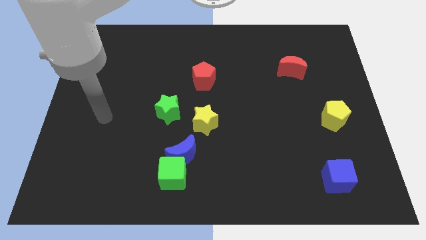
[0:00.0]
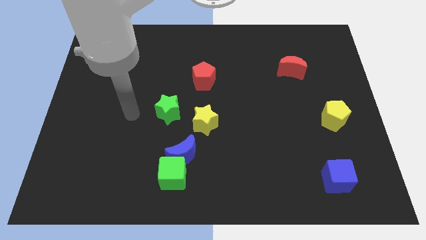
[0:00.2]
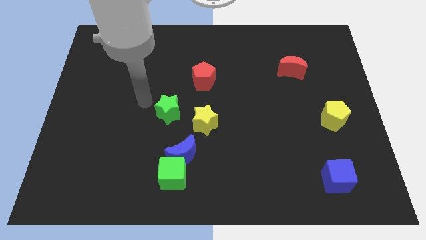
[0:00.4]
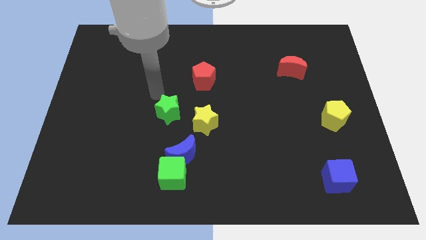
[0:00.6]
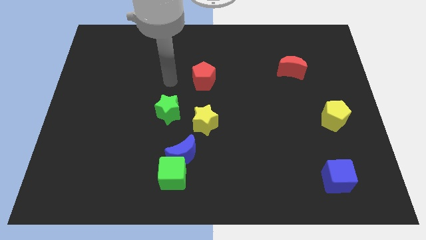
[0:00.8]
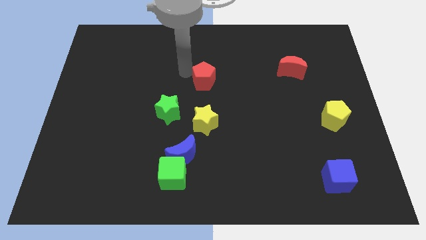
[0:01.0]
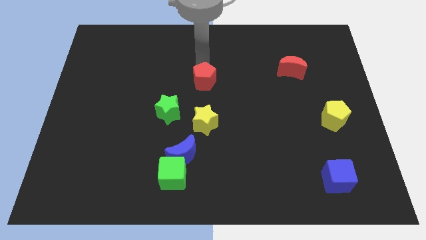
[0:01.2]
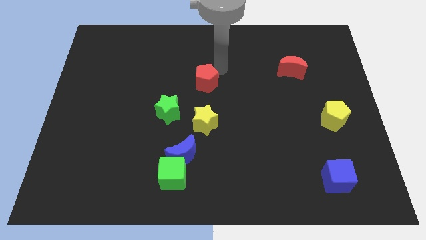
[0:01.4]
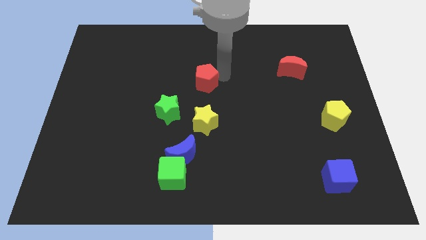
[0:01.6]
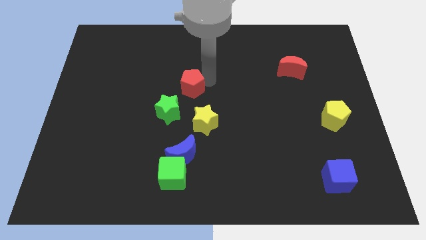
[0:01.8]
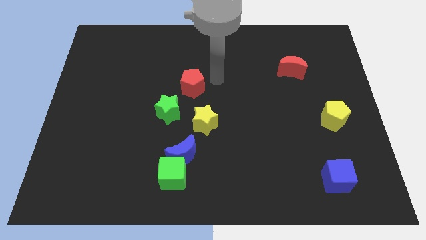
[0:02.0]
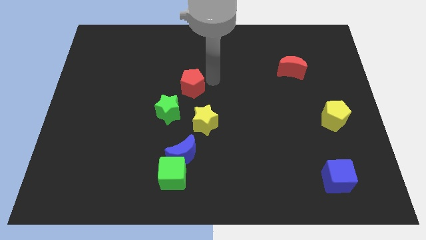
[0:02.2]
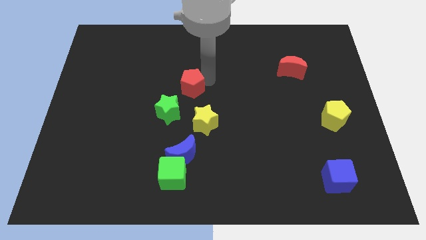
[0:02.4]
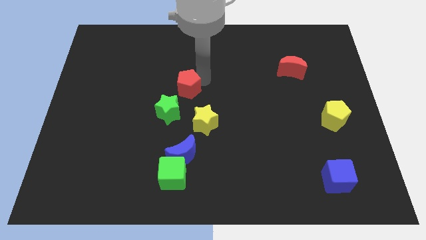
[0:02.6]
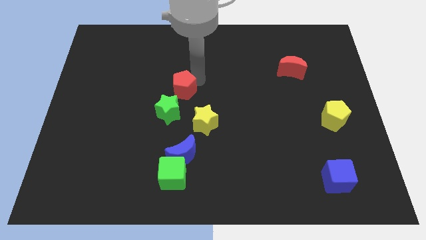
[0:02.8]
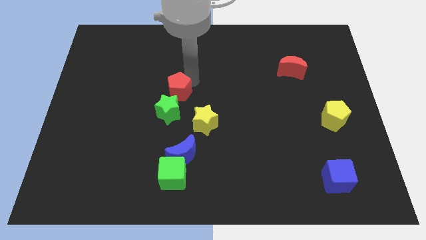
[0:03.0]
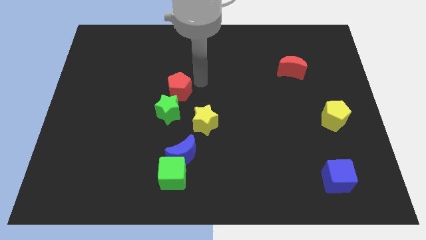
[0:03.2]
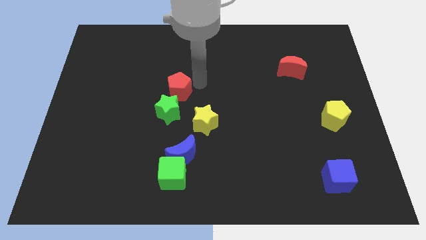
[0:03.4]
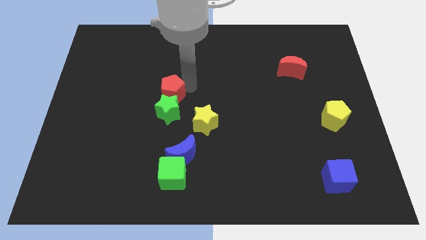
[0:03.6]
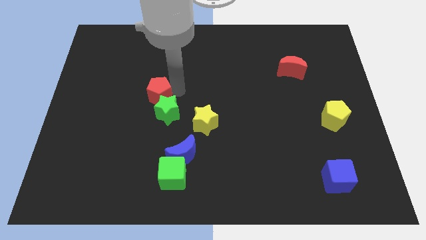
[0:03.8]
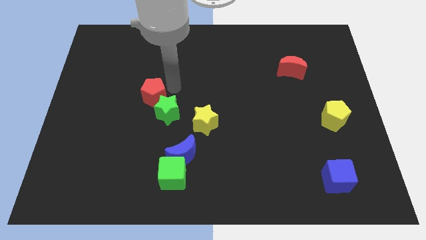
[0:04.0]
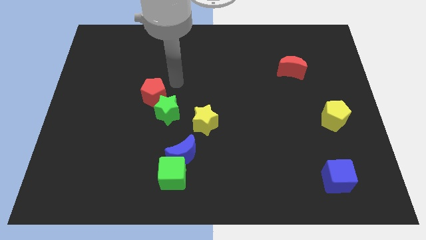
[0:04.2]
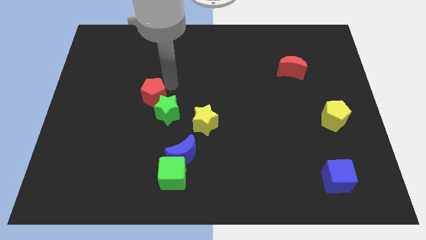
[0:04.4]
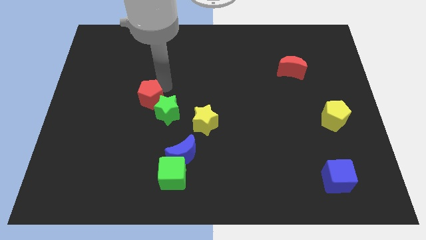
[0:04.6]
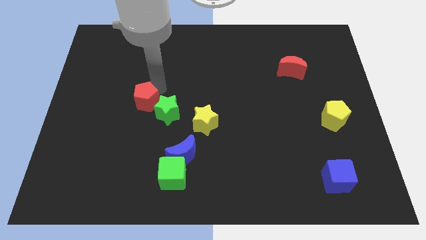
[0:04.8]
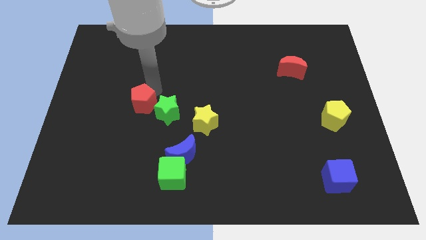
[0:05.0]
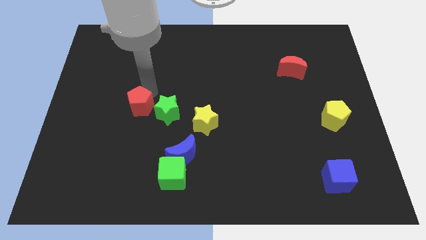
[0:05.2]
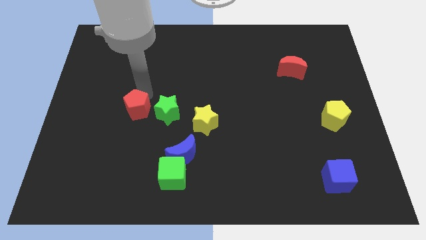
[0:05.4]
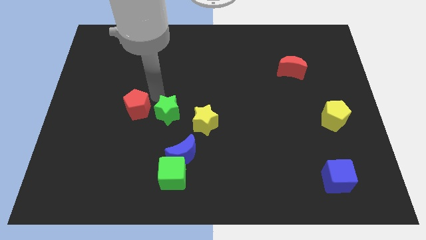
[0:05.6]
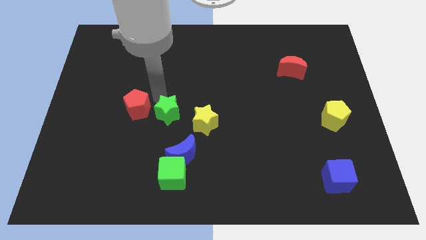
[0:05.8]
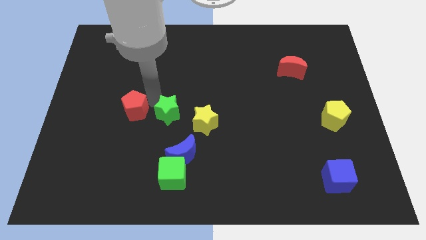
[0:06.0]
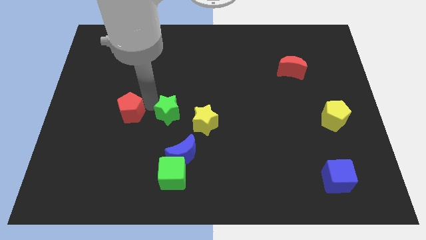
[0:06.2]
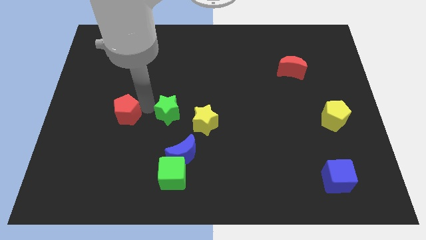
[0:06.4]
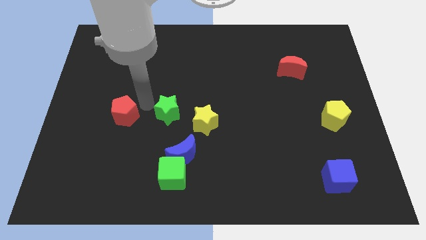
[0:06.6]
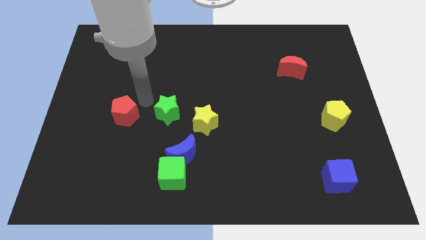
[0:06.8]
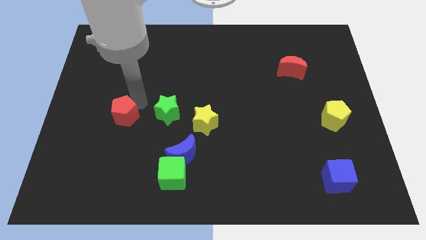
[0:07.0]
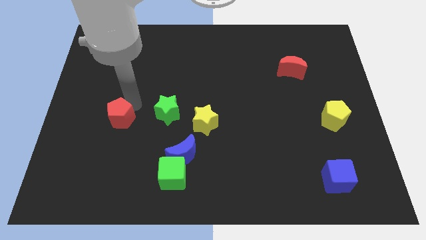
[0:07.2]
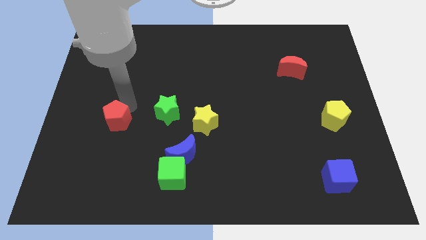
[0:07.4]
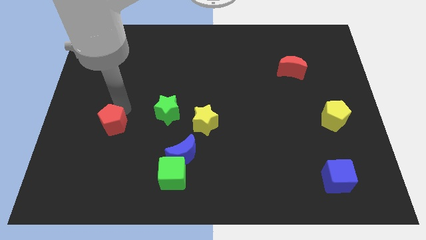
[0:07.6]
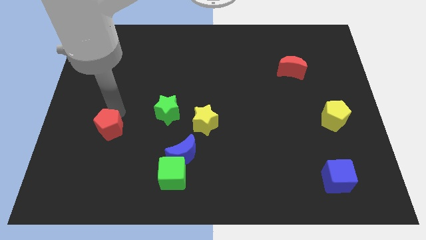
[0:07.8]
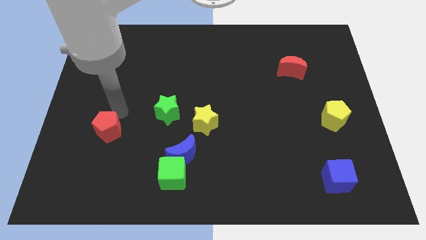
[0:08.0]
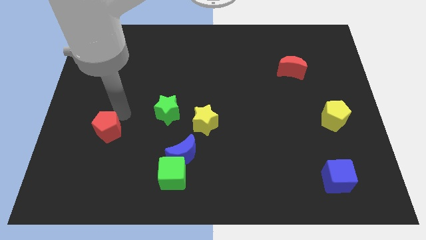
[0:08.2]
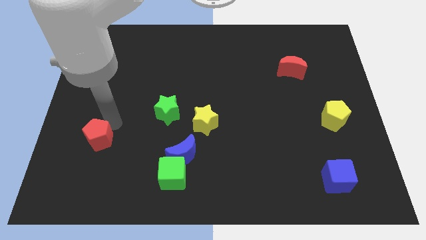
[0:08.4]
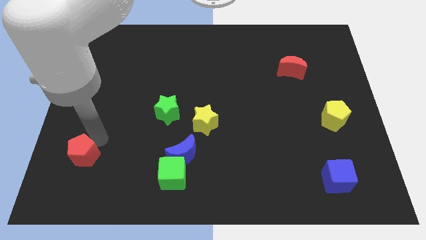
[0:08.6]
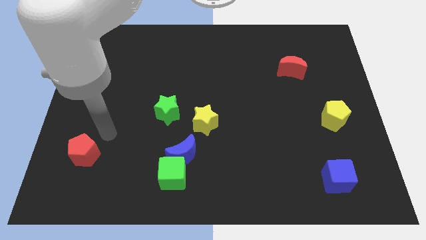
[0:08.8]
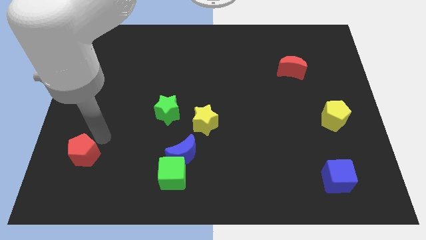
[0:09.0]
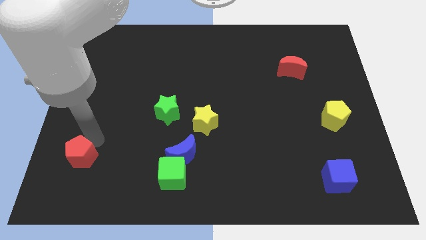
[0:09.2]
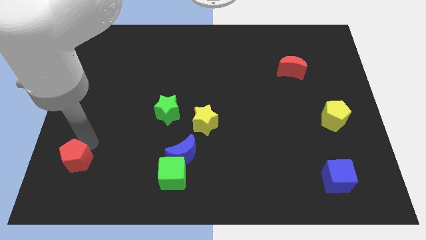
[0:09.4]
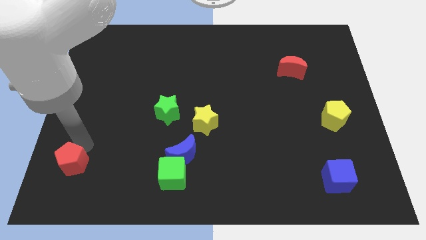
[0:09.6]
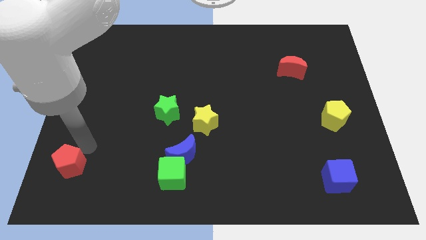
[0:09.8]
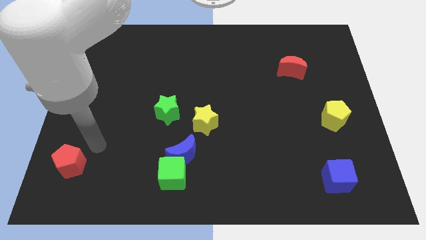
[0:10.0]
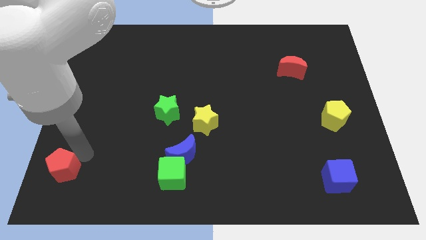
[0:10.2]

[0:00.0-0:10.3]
push the red pentagon to the bottom left

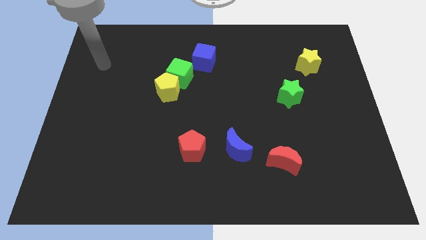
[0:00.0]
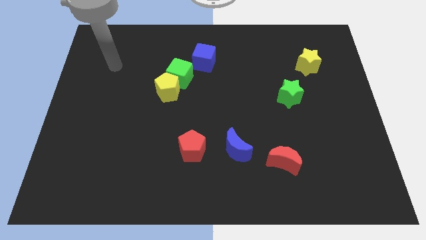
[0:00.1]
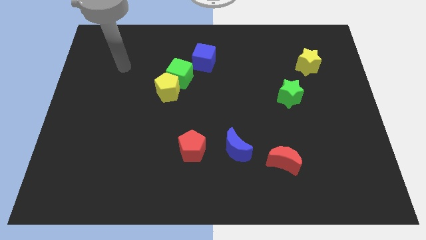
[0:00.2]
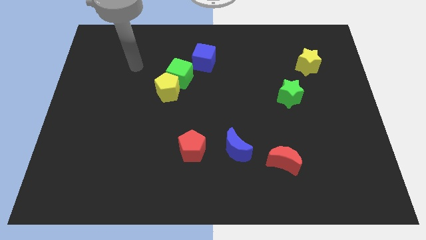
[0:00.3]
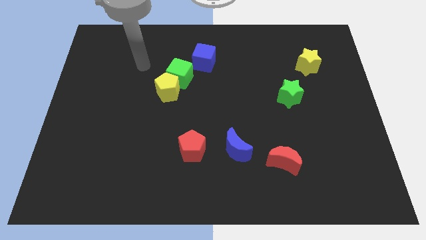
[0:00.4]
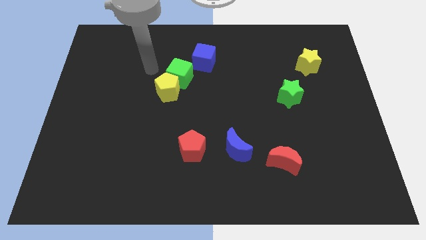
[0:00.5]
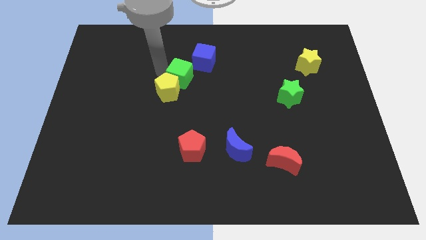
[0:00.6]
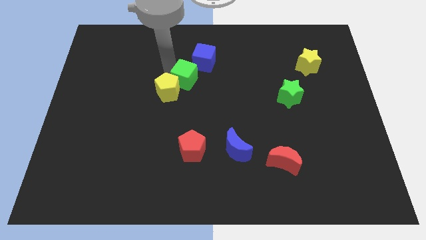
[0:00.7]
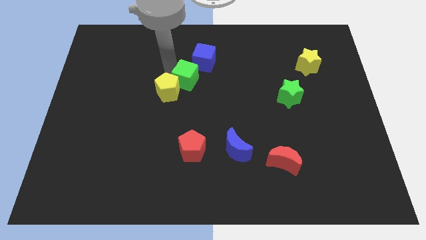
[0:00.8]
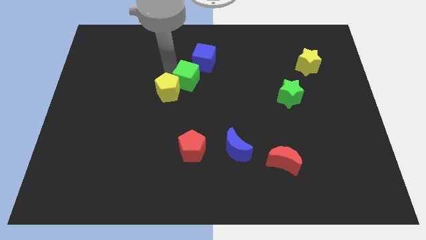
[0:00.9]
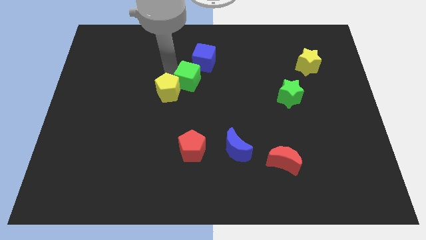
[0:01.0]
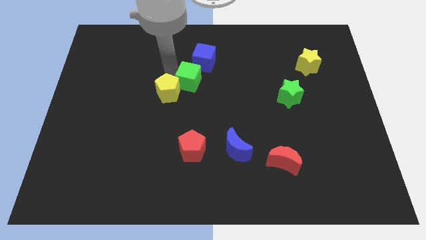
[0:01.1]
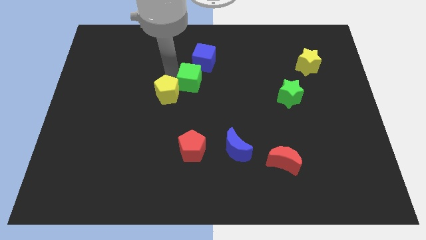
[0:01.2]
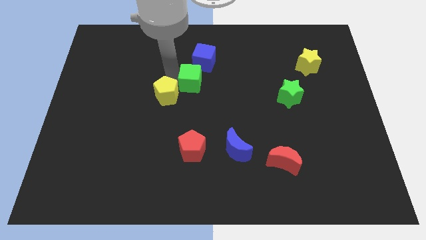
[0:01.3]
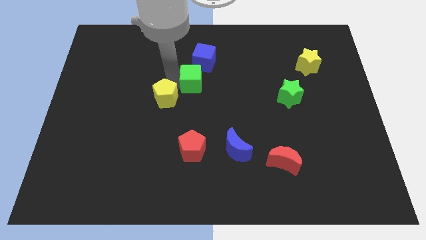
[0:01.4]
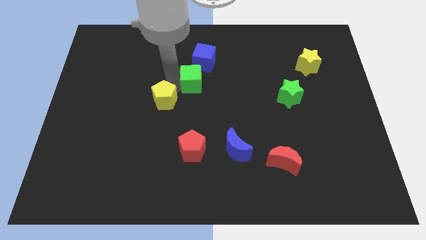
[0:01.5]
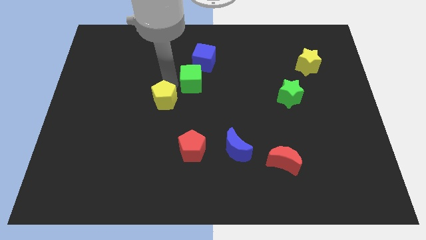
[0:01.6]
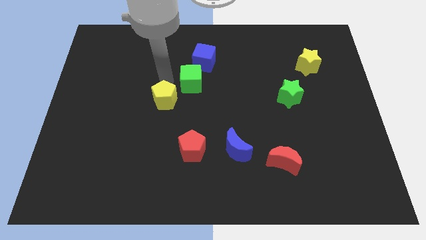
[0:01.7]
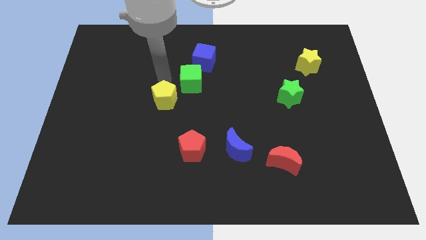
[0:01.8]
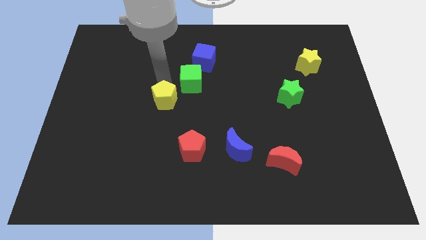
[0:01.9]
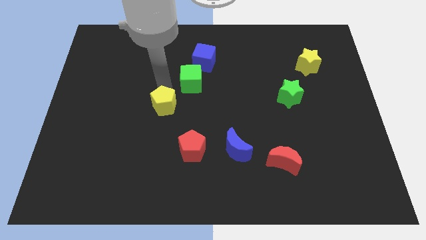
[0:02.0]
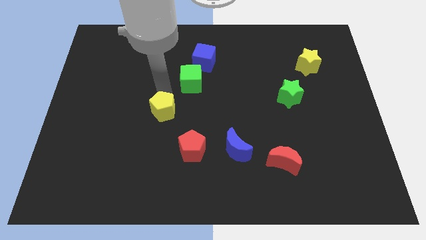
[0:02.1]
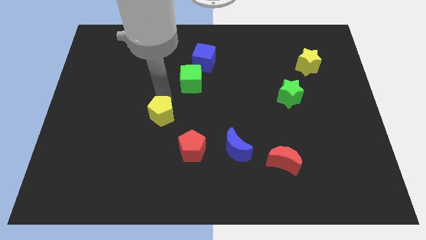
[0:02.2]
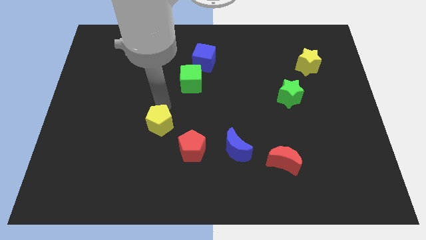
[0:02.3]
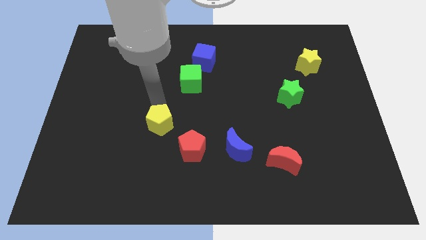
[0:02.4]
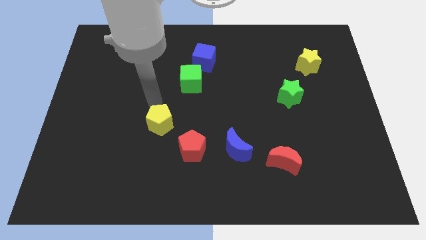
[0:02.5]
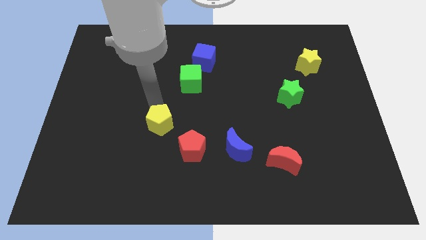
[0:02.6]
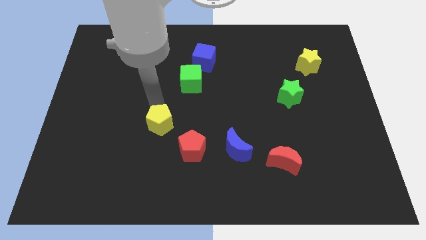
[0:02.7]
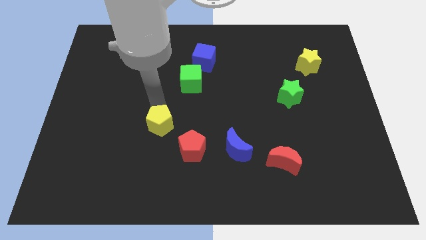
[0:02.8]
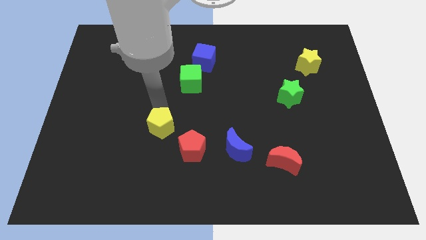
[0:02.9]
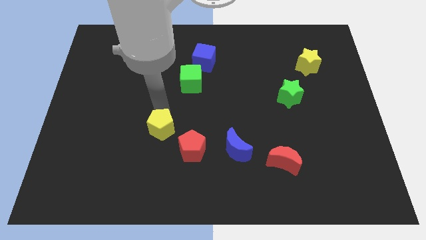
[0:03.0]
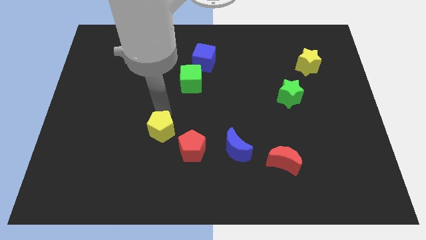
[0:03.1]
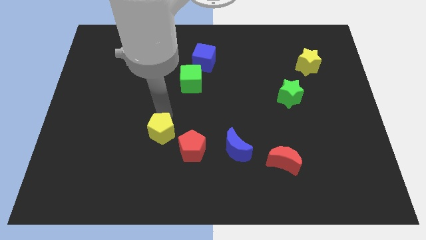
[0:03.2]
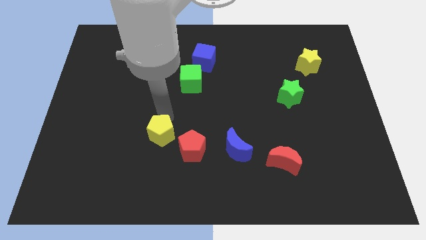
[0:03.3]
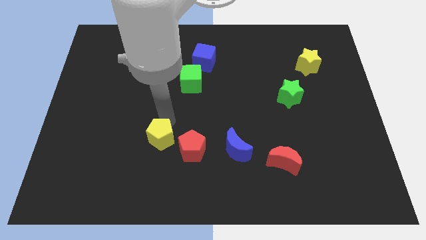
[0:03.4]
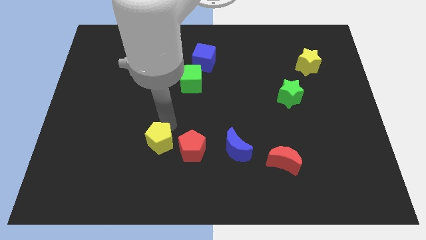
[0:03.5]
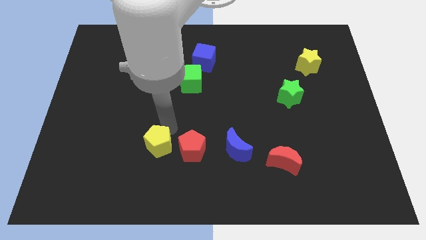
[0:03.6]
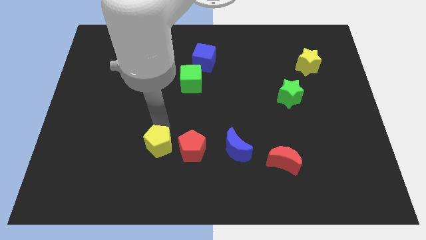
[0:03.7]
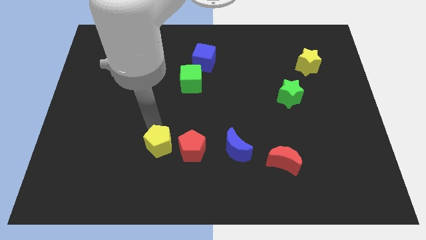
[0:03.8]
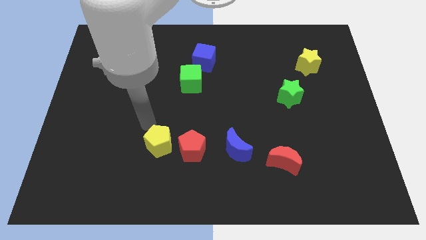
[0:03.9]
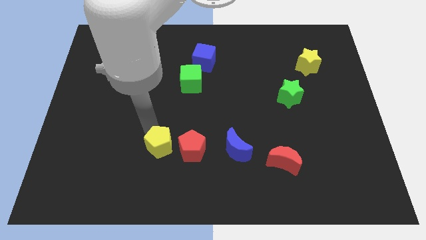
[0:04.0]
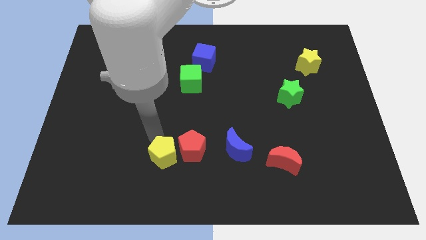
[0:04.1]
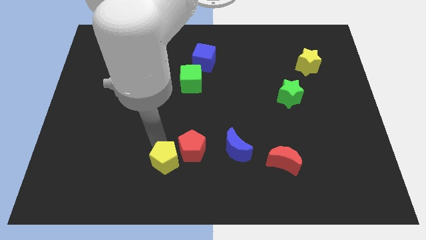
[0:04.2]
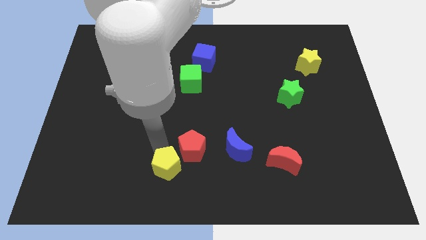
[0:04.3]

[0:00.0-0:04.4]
slide the yellow pentagon to the bottom side
